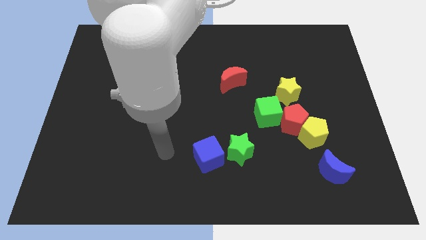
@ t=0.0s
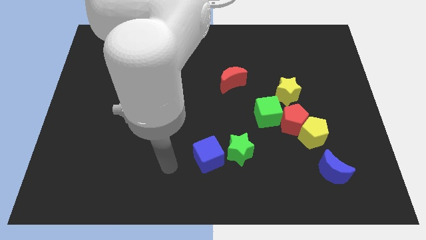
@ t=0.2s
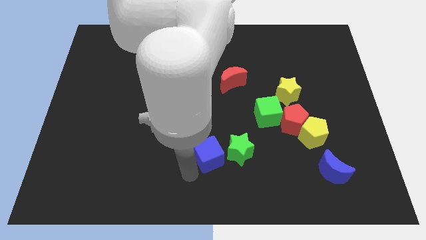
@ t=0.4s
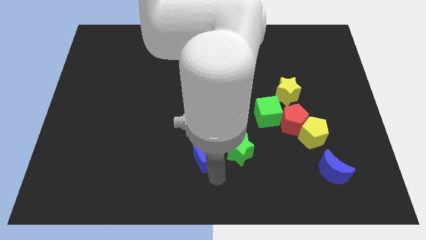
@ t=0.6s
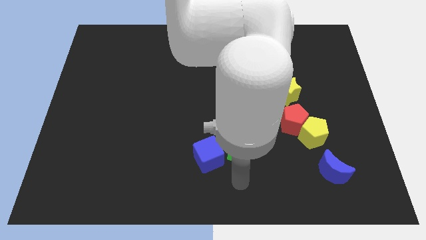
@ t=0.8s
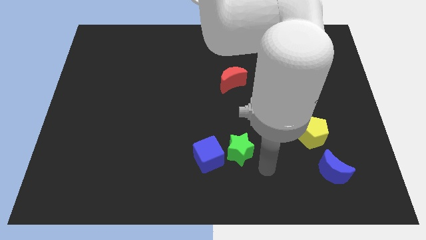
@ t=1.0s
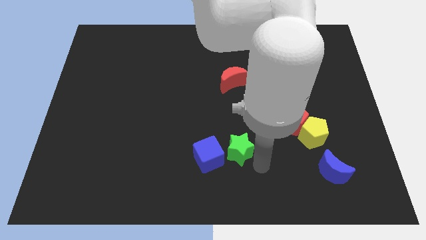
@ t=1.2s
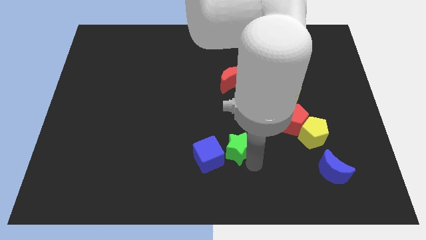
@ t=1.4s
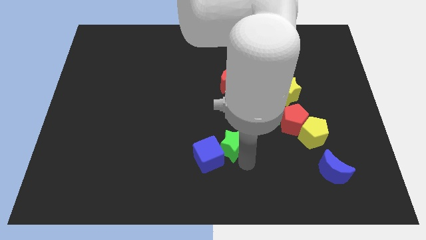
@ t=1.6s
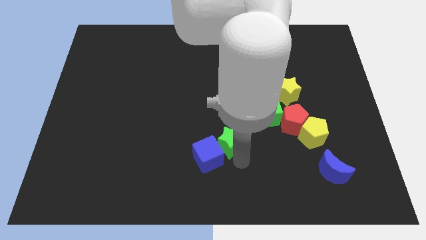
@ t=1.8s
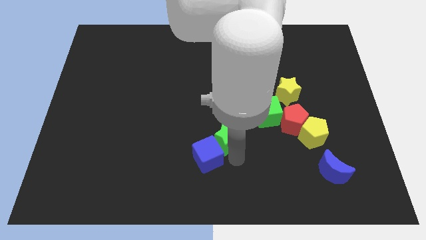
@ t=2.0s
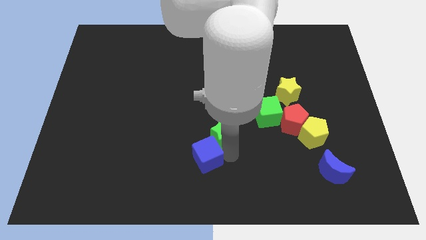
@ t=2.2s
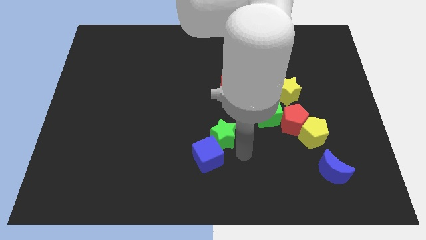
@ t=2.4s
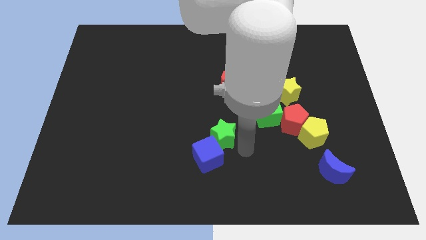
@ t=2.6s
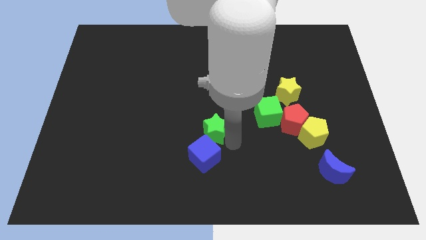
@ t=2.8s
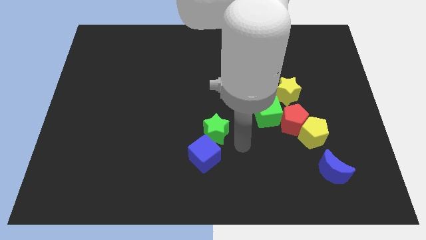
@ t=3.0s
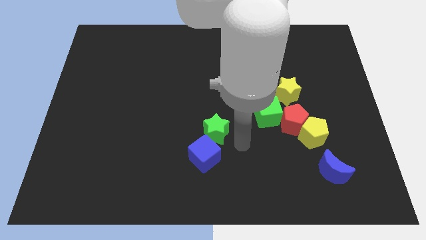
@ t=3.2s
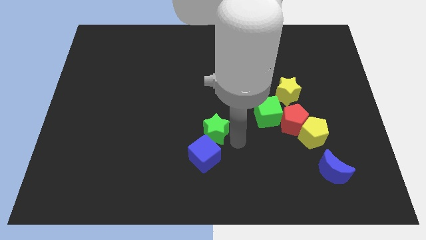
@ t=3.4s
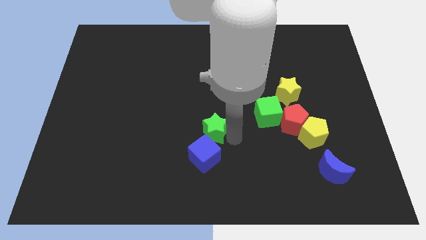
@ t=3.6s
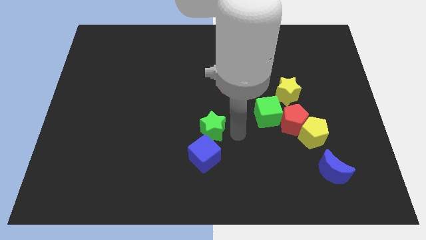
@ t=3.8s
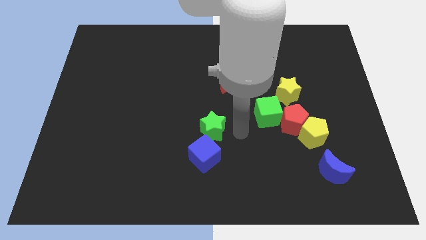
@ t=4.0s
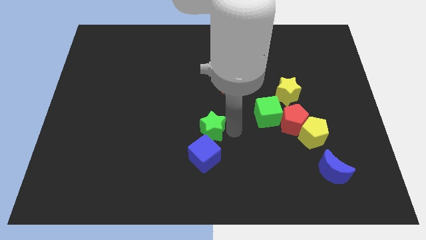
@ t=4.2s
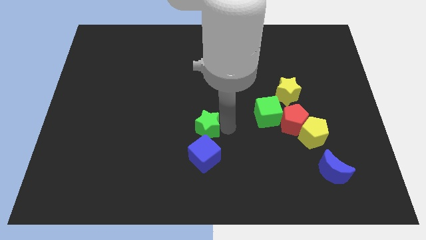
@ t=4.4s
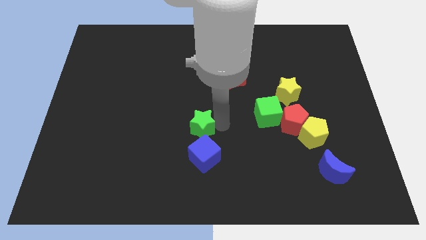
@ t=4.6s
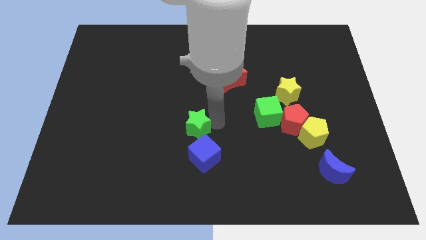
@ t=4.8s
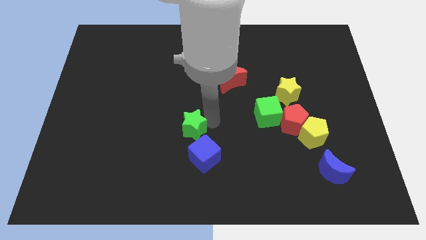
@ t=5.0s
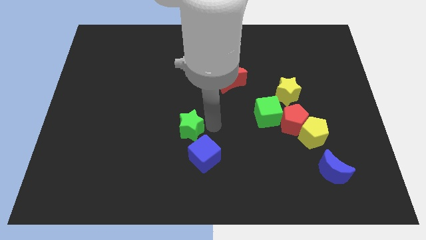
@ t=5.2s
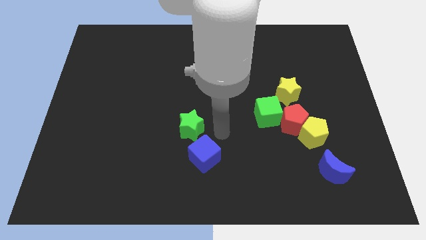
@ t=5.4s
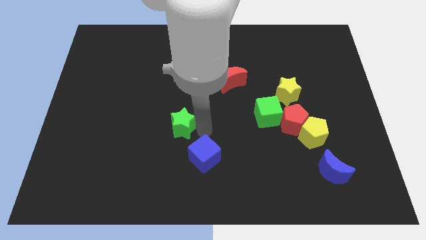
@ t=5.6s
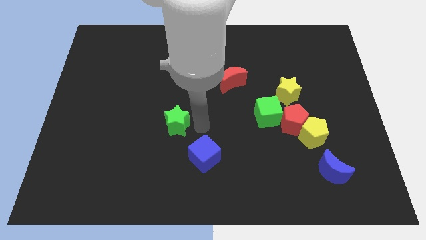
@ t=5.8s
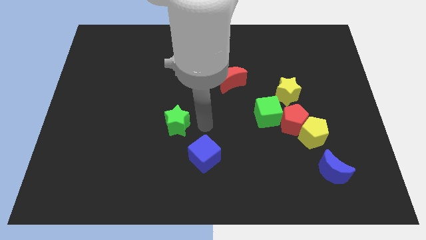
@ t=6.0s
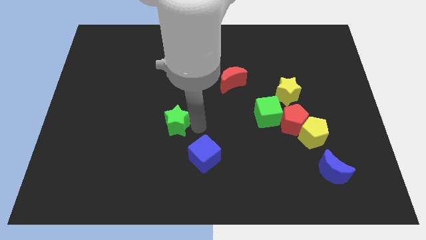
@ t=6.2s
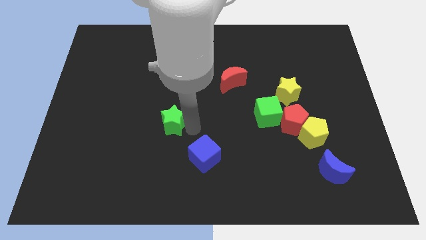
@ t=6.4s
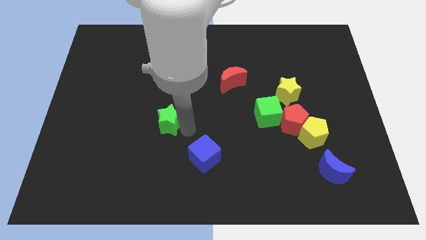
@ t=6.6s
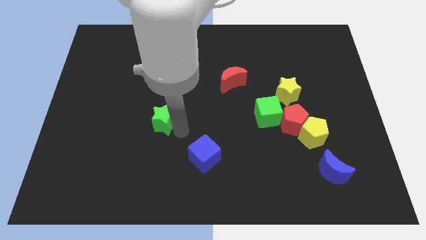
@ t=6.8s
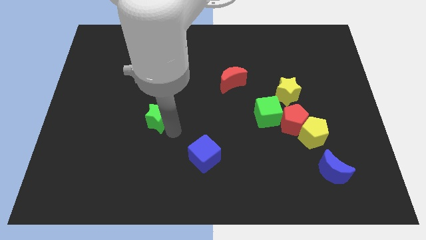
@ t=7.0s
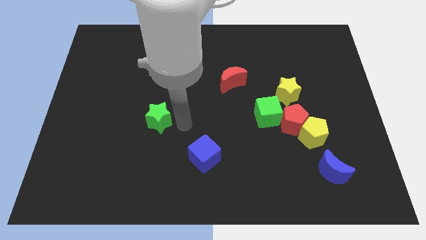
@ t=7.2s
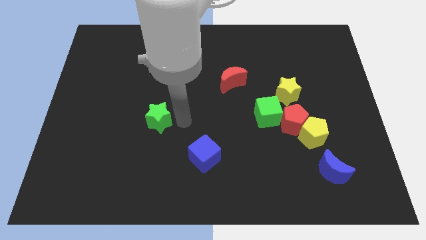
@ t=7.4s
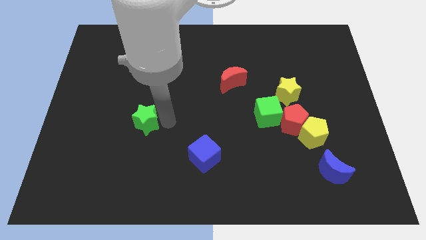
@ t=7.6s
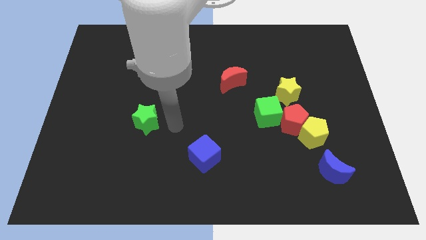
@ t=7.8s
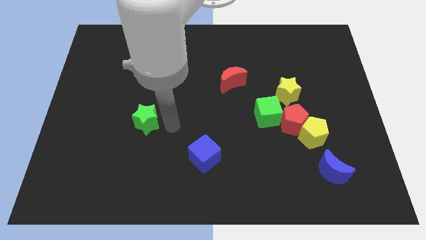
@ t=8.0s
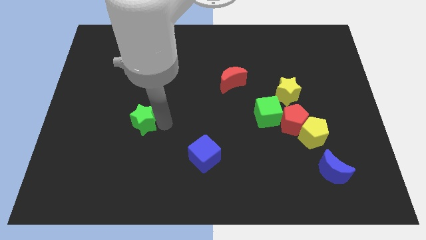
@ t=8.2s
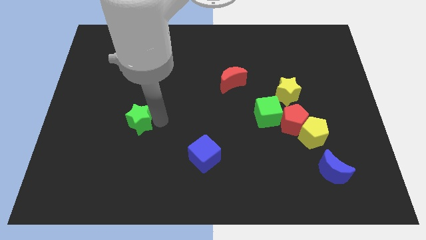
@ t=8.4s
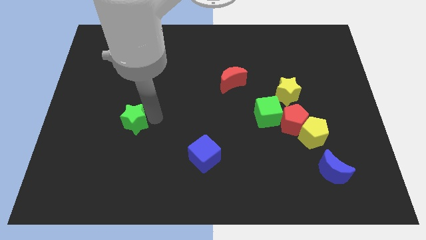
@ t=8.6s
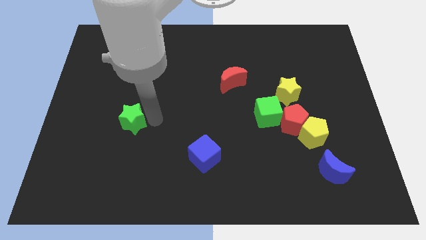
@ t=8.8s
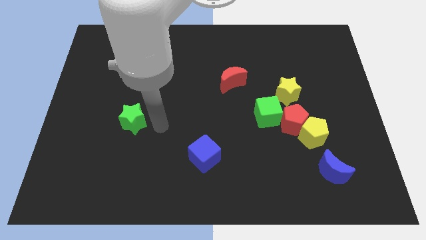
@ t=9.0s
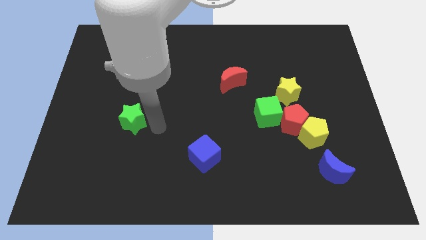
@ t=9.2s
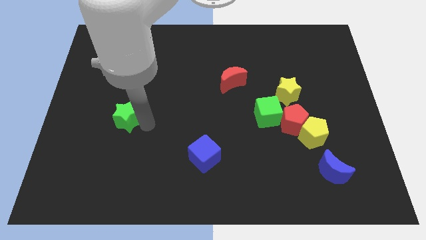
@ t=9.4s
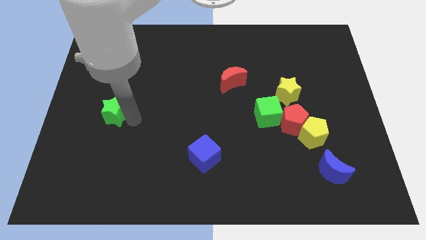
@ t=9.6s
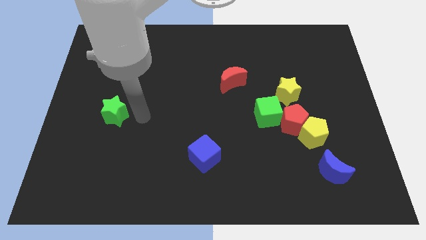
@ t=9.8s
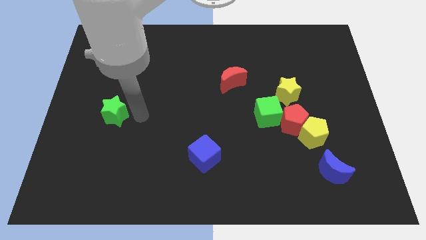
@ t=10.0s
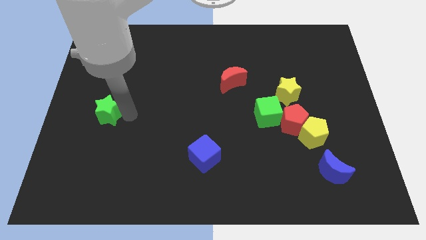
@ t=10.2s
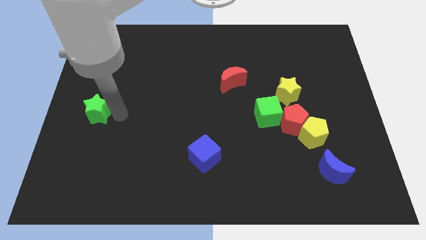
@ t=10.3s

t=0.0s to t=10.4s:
push the green star to the left side of the board

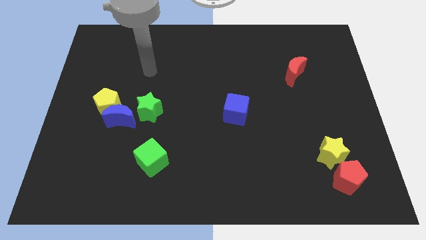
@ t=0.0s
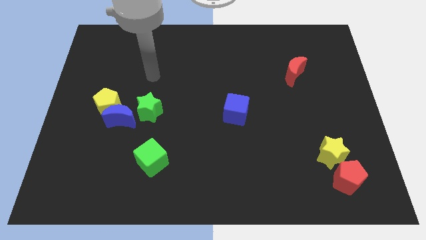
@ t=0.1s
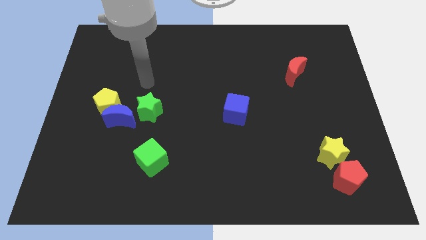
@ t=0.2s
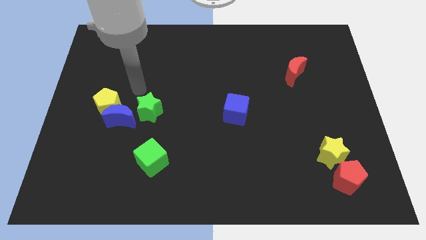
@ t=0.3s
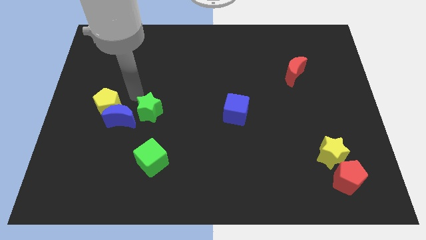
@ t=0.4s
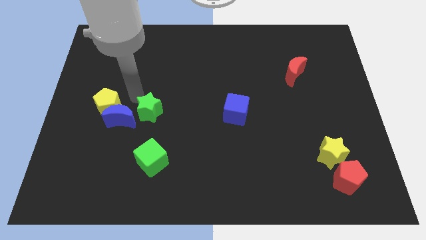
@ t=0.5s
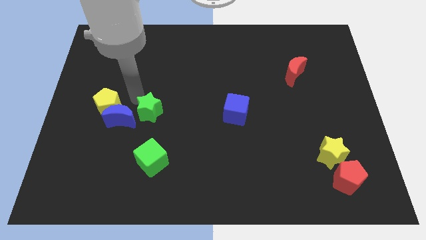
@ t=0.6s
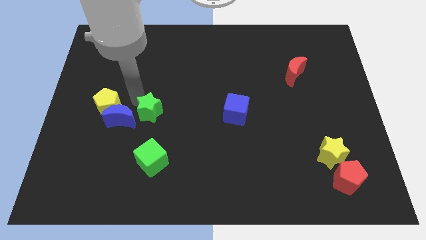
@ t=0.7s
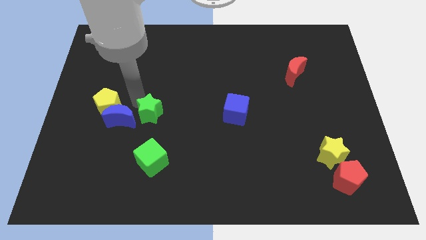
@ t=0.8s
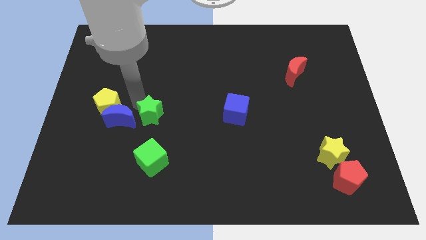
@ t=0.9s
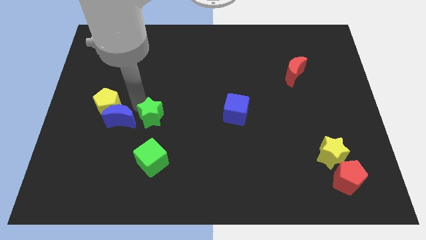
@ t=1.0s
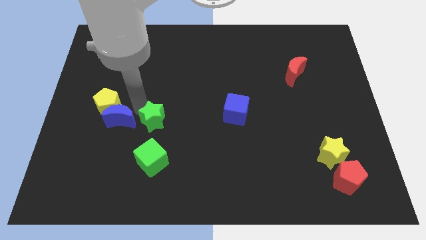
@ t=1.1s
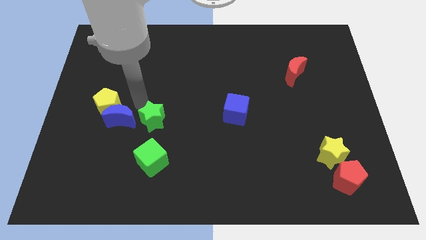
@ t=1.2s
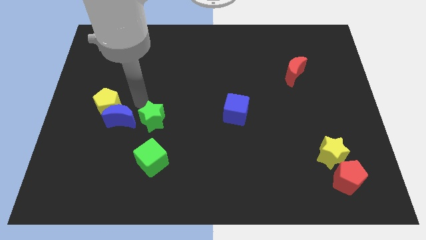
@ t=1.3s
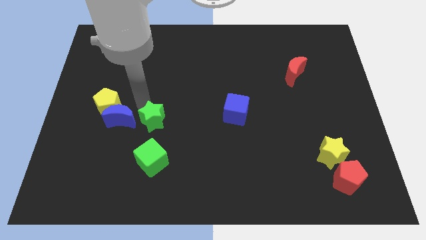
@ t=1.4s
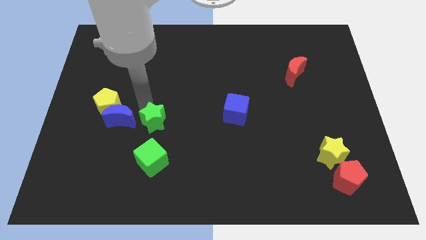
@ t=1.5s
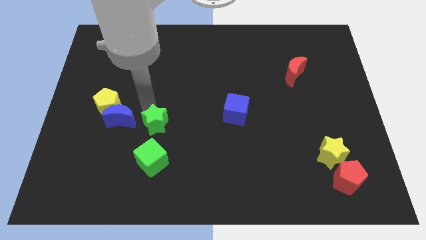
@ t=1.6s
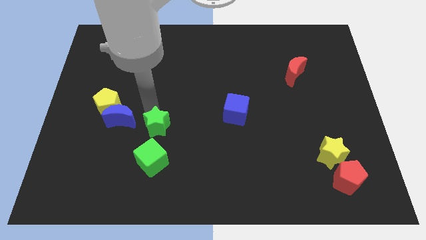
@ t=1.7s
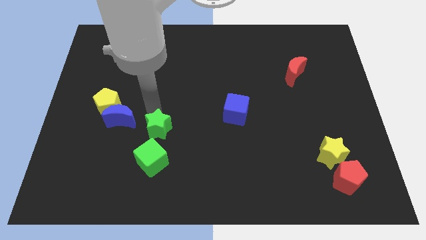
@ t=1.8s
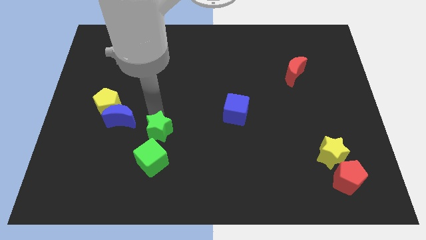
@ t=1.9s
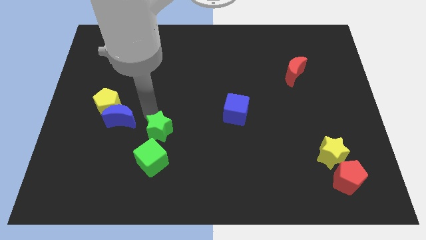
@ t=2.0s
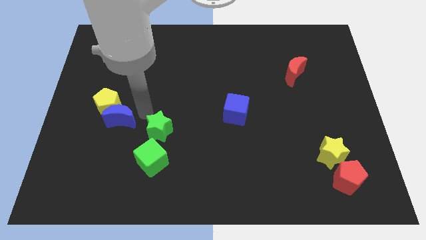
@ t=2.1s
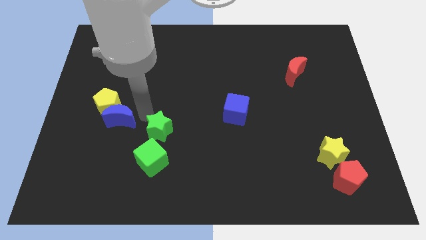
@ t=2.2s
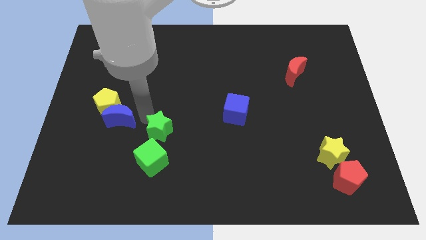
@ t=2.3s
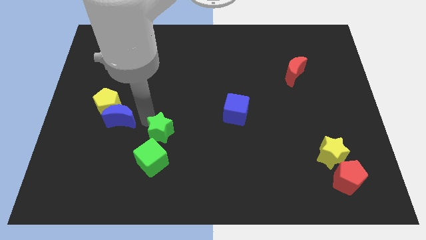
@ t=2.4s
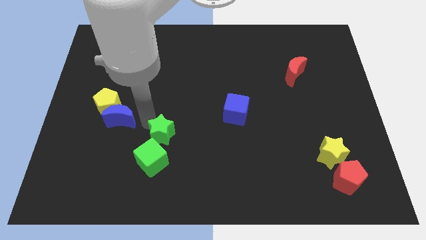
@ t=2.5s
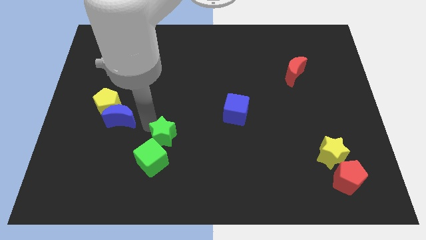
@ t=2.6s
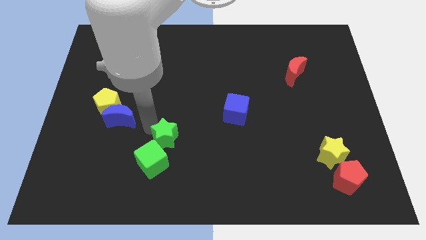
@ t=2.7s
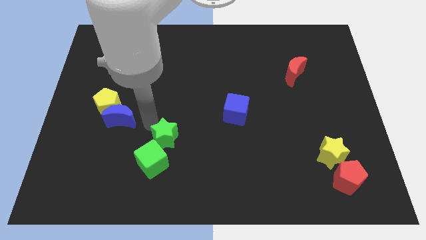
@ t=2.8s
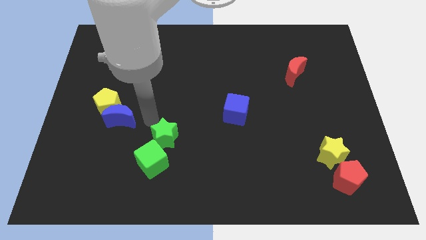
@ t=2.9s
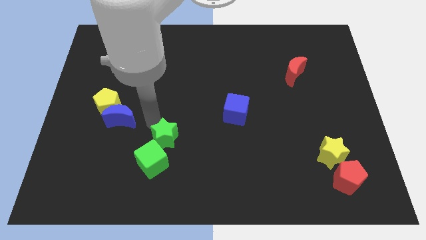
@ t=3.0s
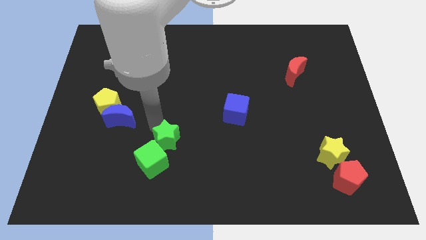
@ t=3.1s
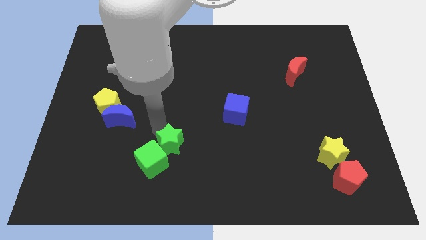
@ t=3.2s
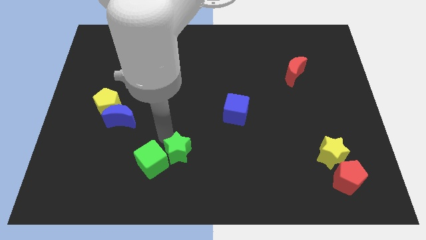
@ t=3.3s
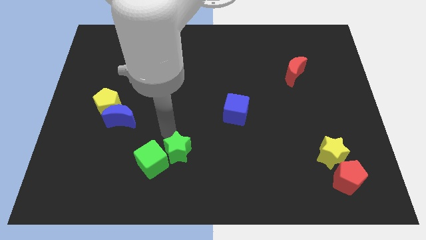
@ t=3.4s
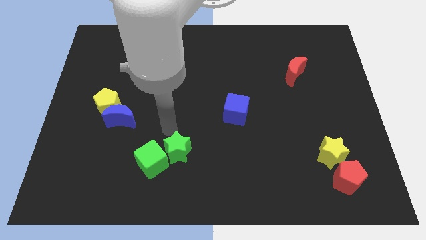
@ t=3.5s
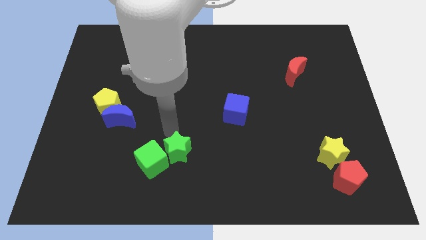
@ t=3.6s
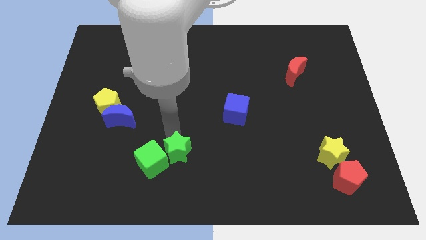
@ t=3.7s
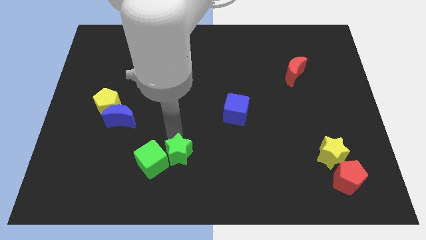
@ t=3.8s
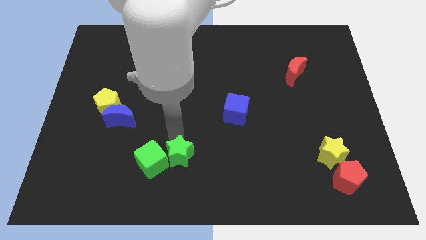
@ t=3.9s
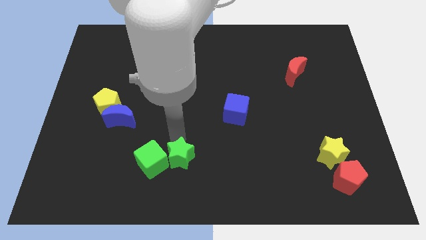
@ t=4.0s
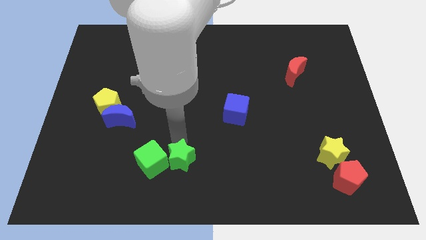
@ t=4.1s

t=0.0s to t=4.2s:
push the green star to the bottom
